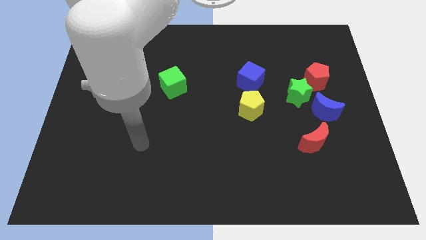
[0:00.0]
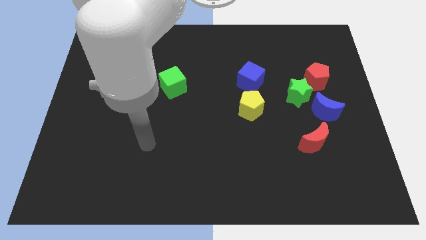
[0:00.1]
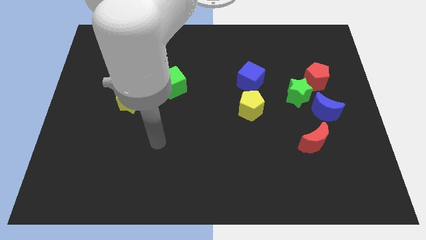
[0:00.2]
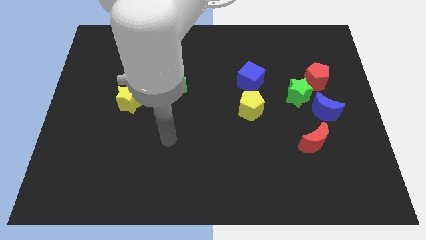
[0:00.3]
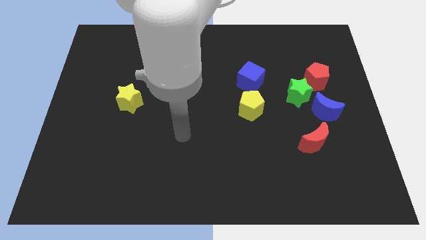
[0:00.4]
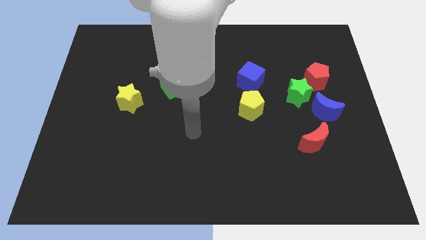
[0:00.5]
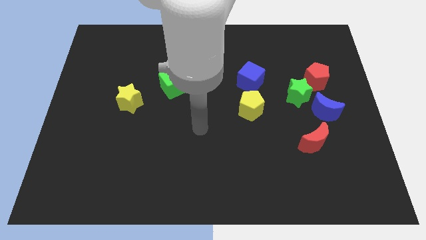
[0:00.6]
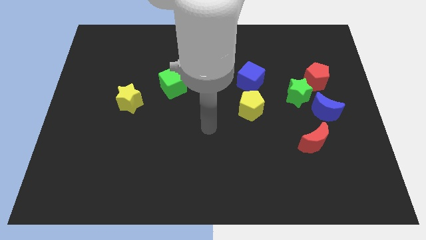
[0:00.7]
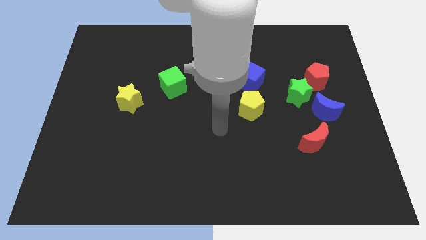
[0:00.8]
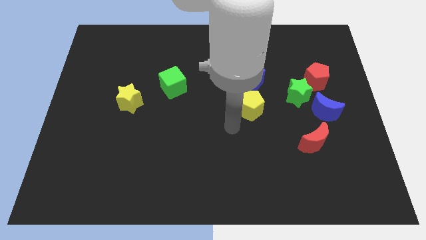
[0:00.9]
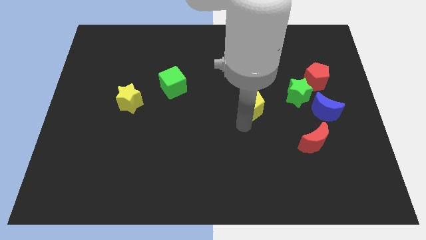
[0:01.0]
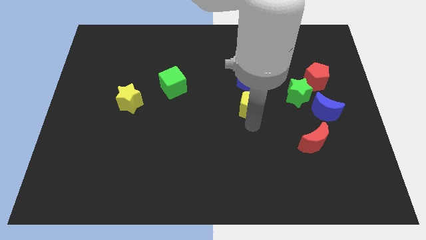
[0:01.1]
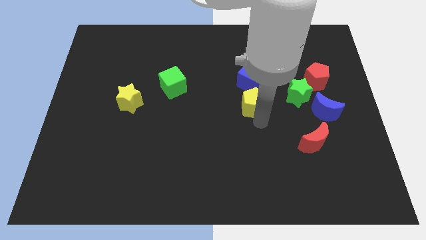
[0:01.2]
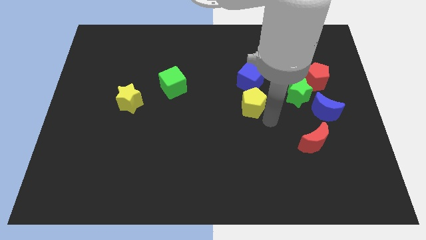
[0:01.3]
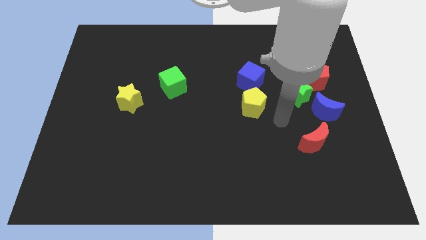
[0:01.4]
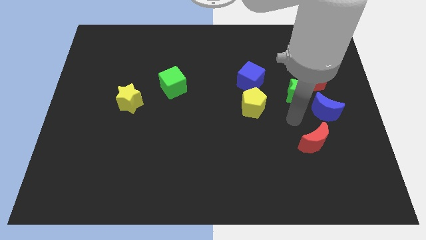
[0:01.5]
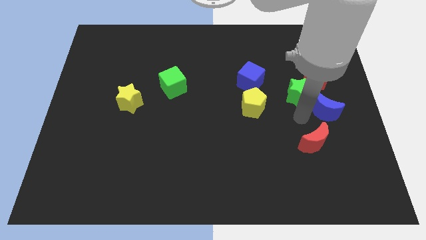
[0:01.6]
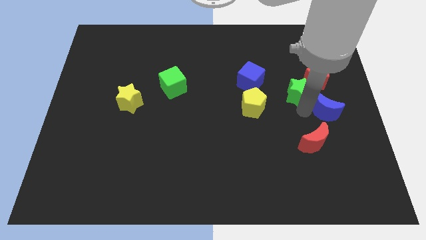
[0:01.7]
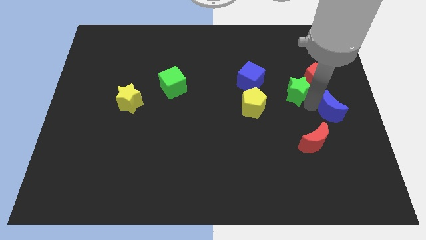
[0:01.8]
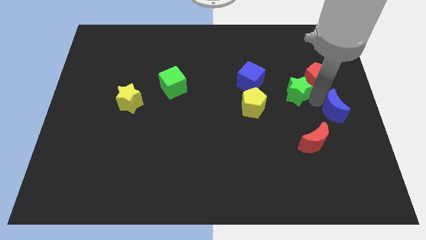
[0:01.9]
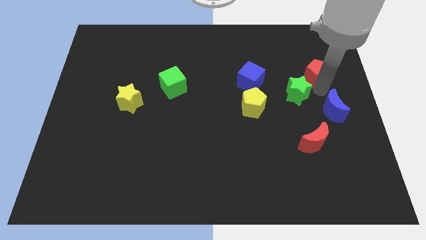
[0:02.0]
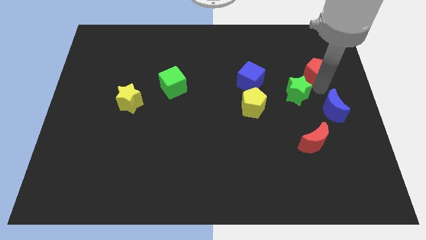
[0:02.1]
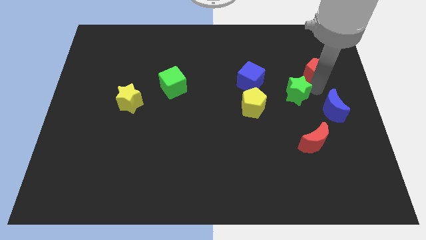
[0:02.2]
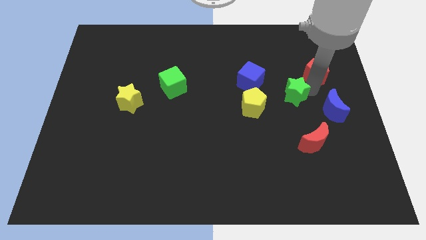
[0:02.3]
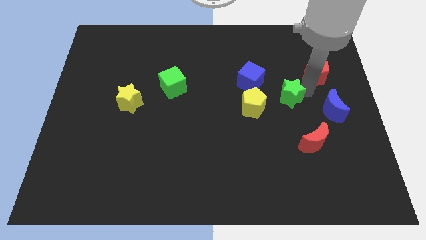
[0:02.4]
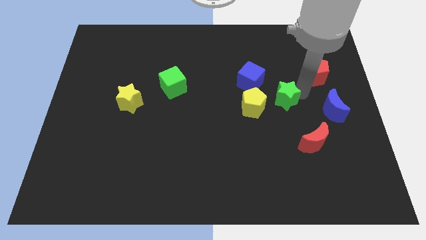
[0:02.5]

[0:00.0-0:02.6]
separate the green star from the red pentagon and blue moon

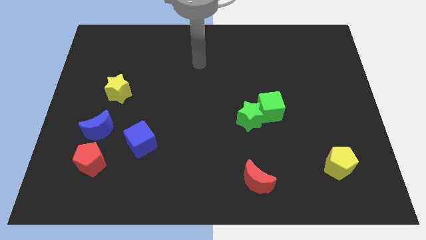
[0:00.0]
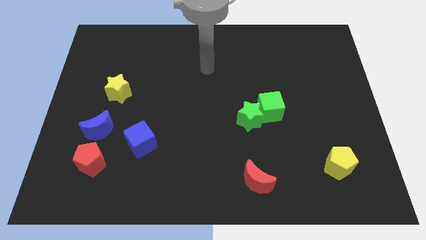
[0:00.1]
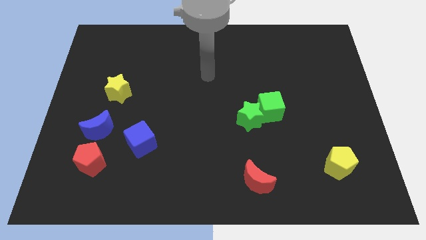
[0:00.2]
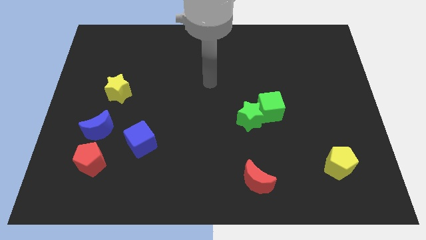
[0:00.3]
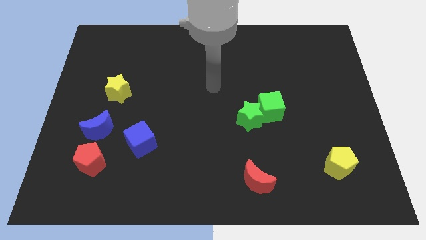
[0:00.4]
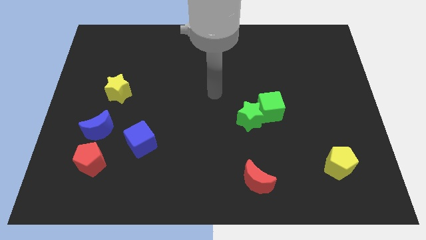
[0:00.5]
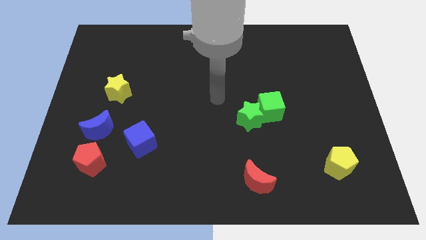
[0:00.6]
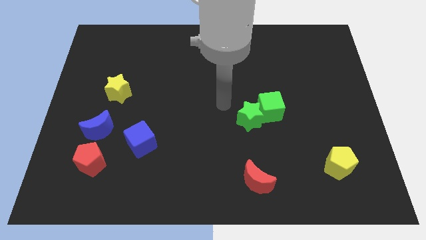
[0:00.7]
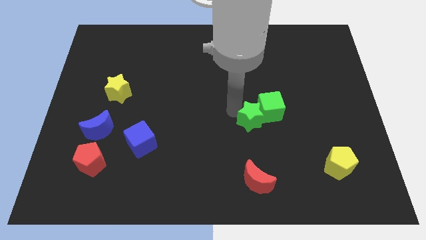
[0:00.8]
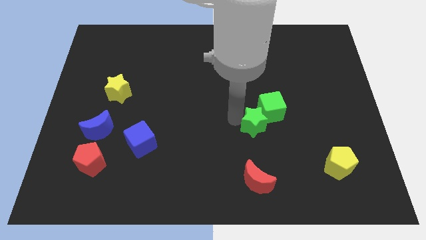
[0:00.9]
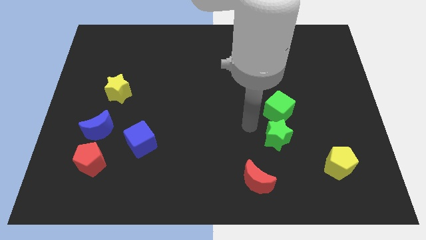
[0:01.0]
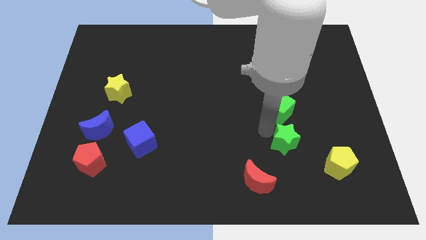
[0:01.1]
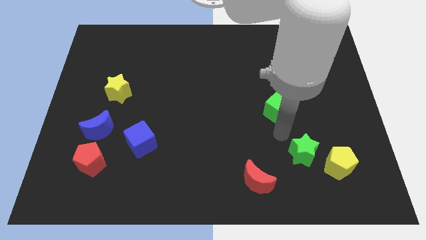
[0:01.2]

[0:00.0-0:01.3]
separate the green cube from the green star

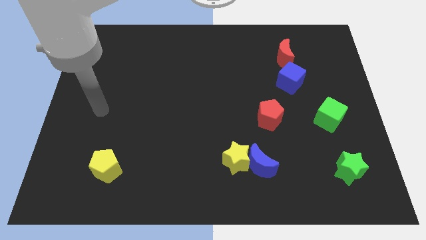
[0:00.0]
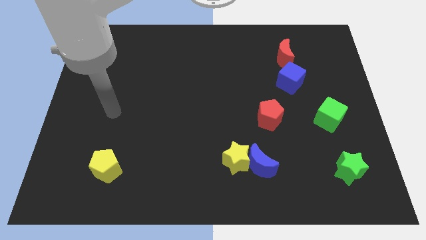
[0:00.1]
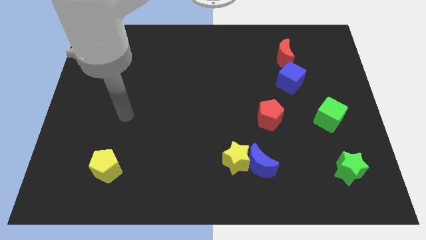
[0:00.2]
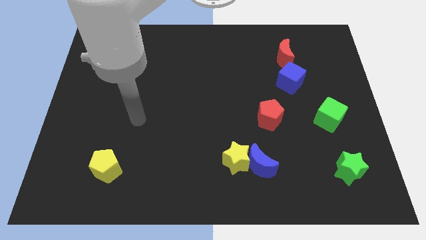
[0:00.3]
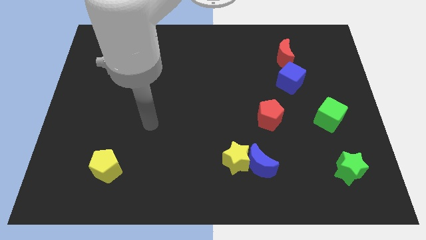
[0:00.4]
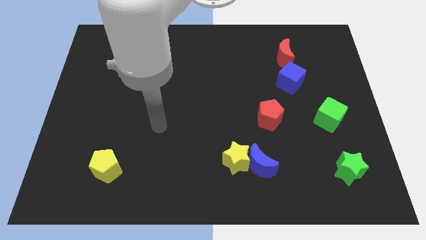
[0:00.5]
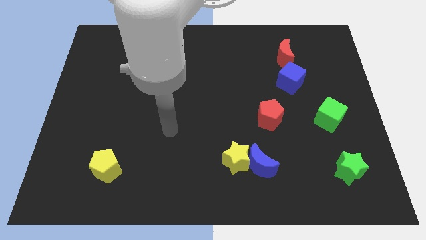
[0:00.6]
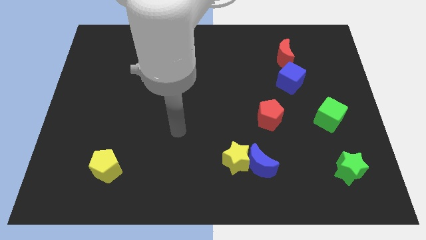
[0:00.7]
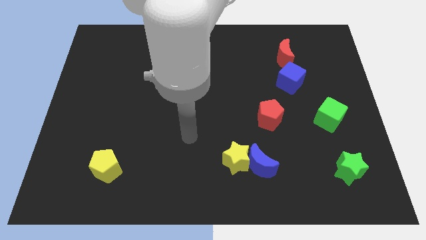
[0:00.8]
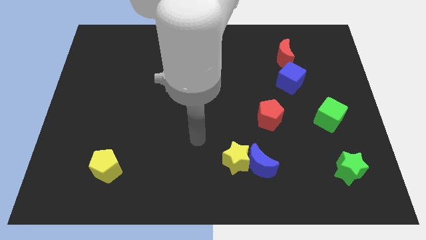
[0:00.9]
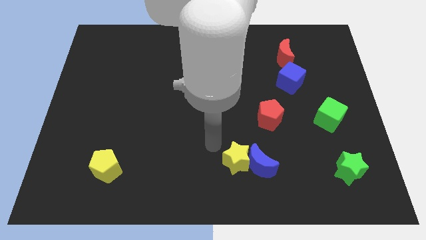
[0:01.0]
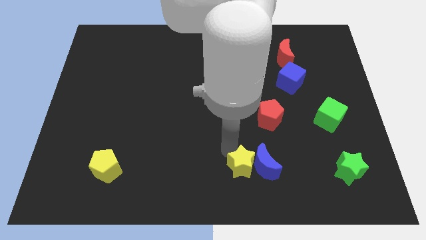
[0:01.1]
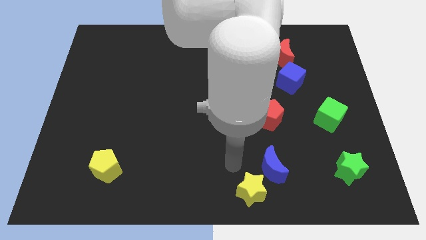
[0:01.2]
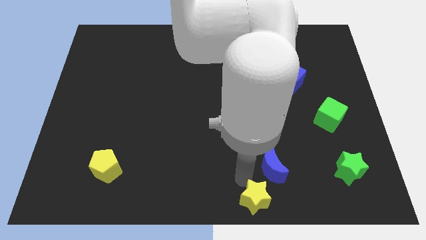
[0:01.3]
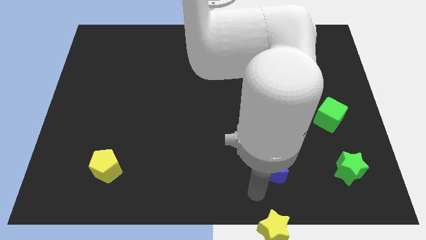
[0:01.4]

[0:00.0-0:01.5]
move the blue moon away from the yellow star

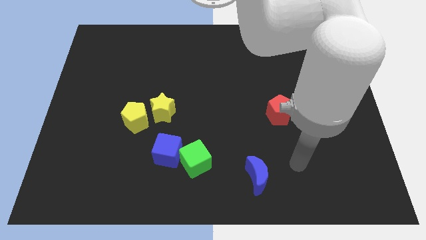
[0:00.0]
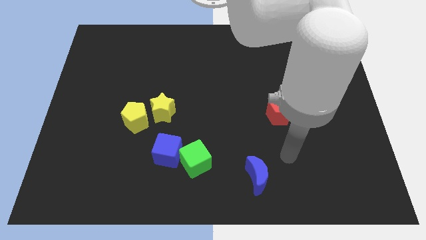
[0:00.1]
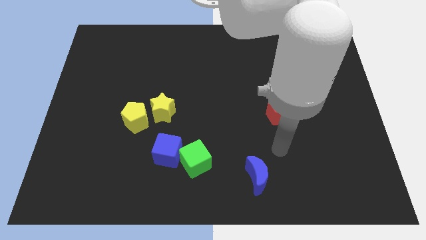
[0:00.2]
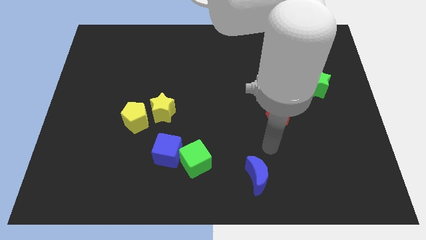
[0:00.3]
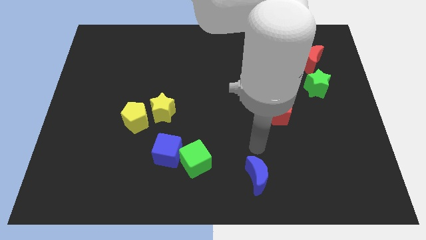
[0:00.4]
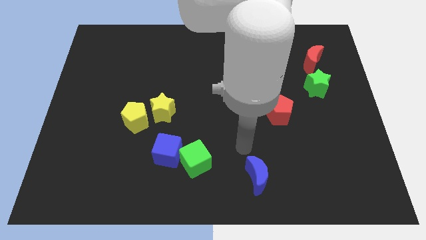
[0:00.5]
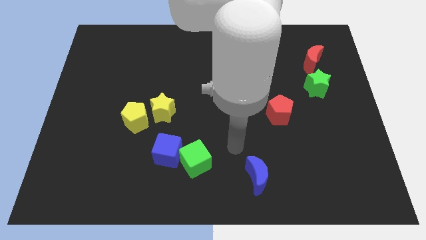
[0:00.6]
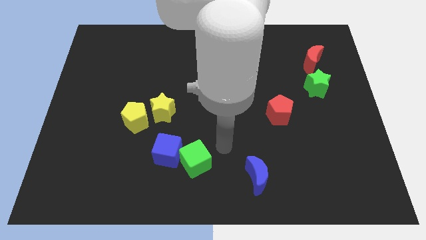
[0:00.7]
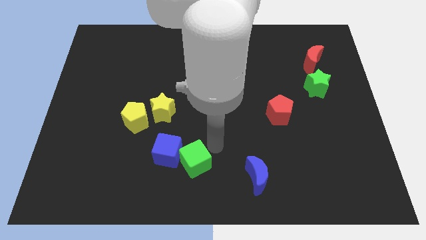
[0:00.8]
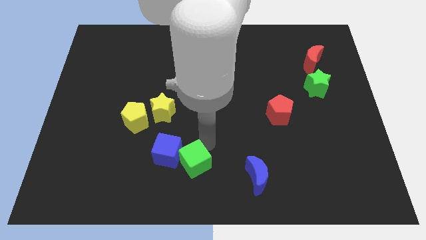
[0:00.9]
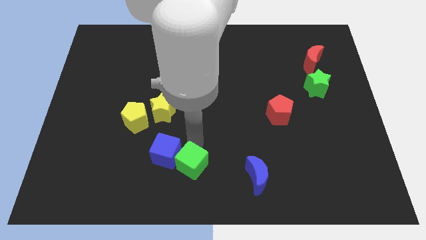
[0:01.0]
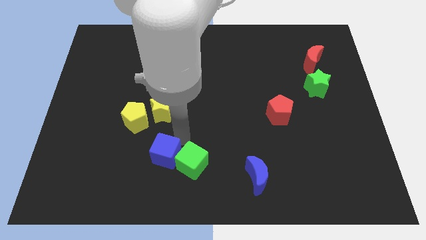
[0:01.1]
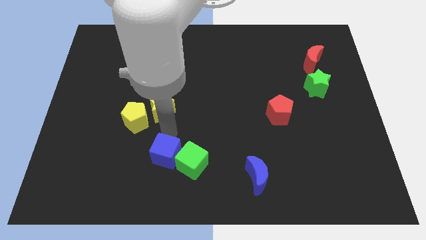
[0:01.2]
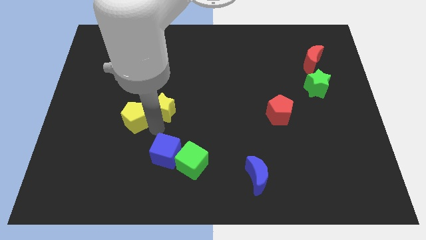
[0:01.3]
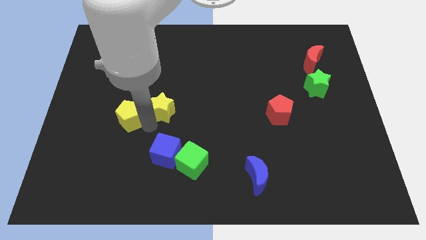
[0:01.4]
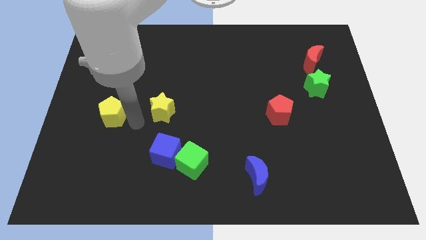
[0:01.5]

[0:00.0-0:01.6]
separate the yellow star from the yellow pentagon

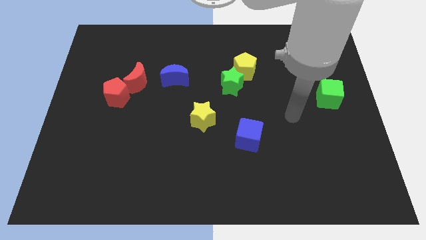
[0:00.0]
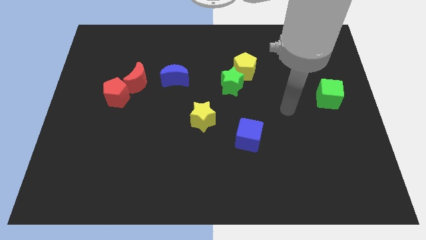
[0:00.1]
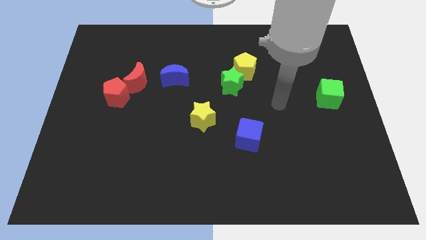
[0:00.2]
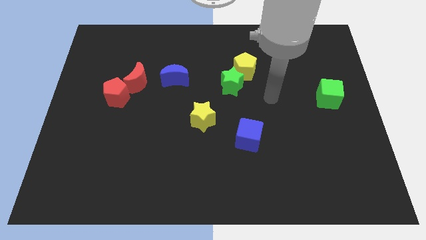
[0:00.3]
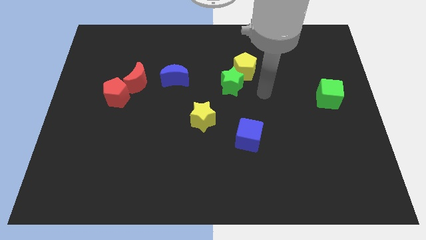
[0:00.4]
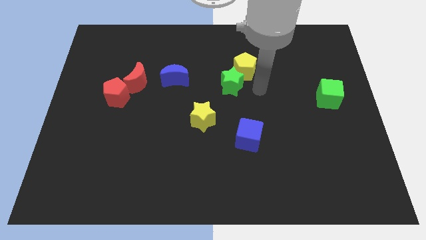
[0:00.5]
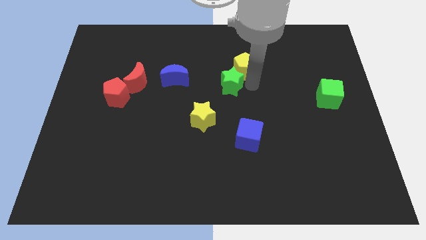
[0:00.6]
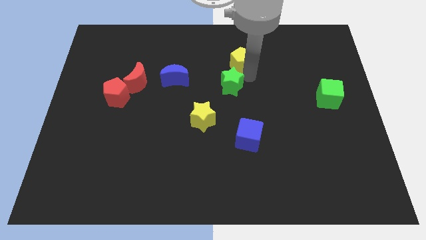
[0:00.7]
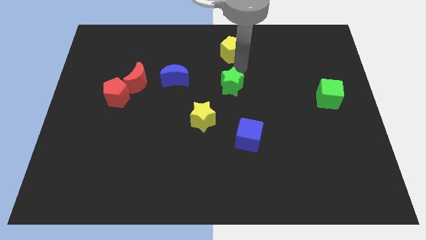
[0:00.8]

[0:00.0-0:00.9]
separate the green star from the yellow pentagon

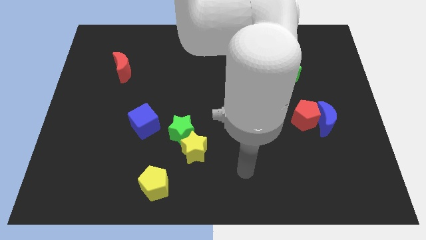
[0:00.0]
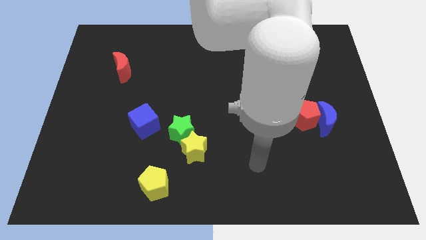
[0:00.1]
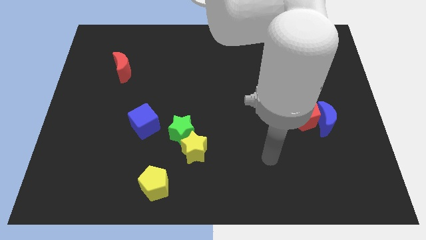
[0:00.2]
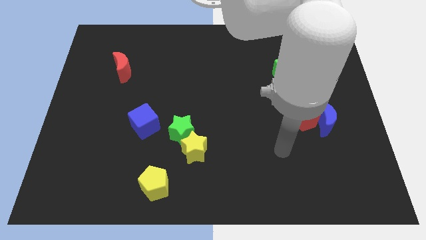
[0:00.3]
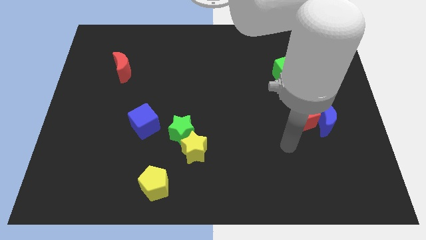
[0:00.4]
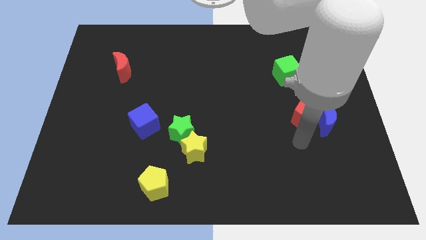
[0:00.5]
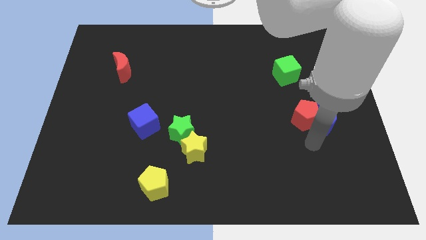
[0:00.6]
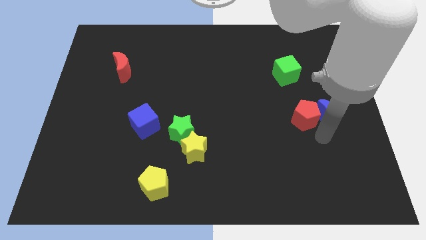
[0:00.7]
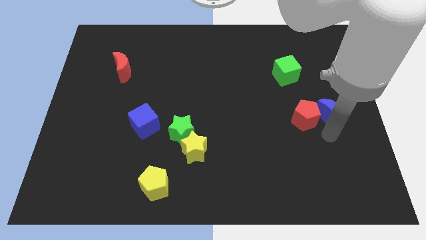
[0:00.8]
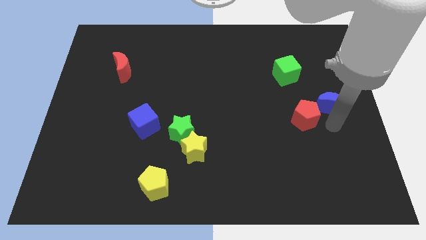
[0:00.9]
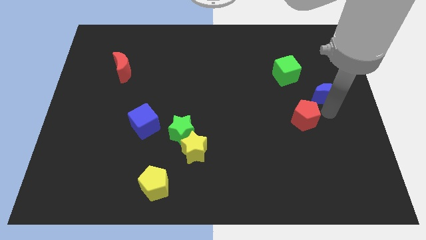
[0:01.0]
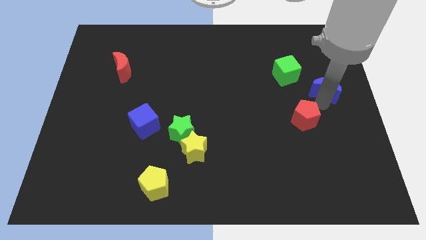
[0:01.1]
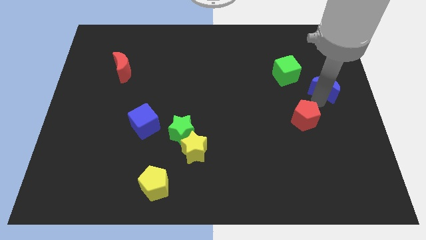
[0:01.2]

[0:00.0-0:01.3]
pull the red pentagon apart from the blue moon

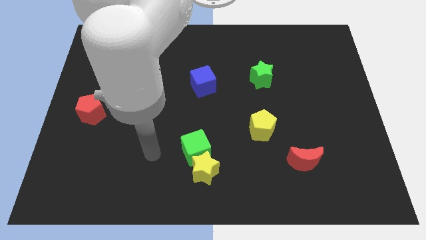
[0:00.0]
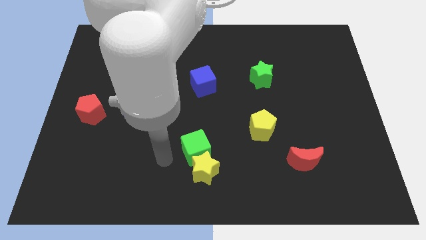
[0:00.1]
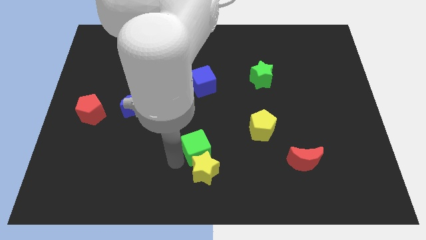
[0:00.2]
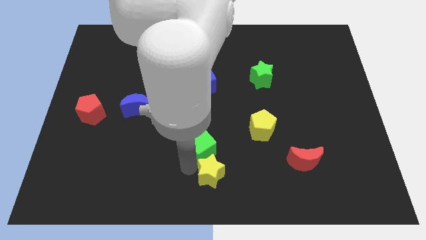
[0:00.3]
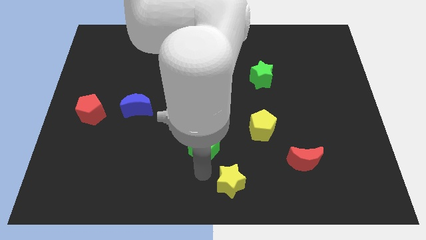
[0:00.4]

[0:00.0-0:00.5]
separate the green cube from the yellow star
